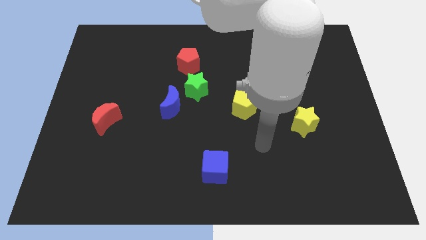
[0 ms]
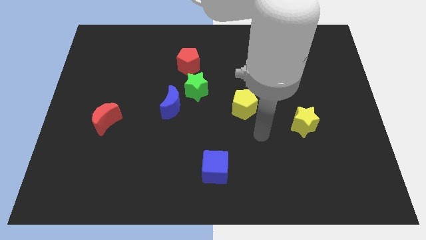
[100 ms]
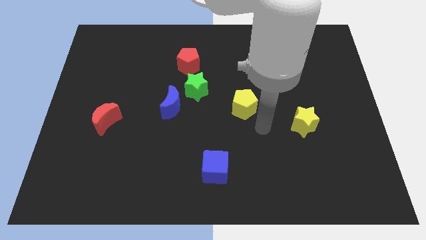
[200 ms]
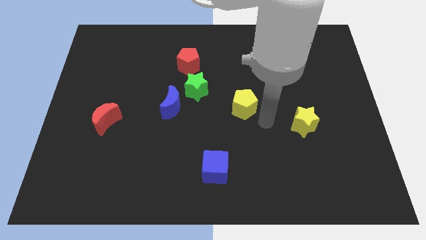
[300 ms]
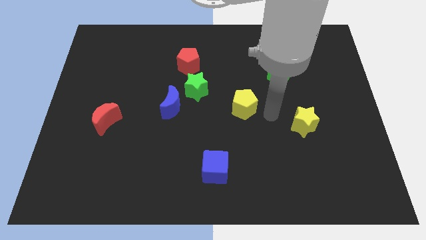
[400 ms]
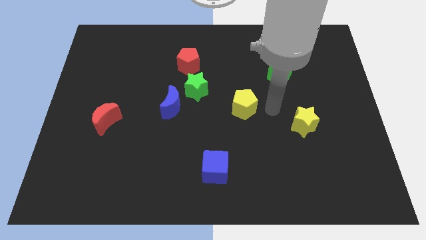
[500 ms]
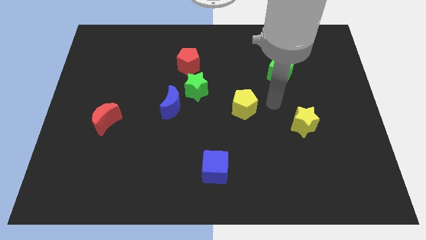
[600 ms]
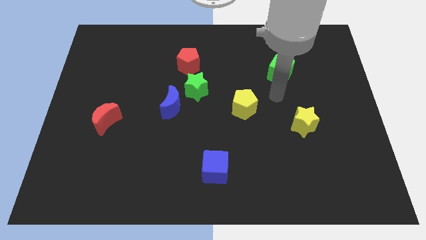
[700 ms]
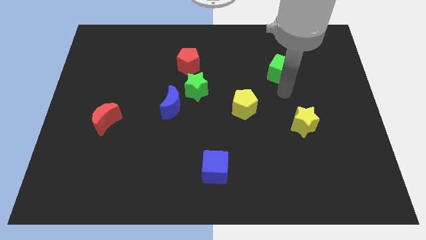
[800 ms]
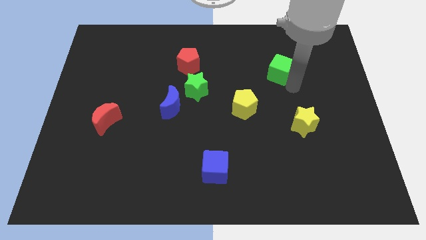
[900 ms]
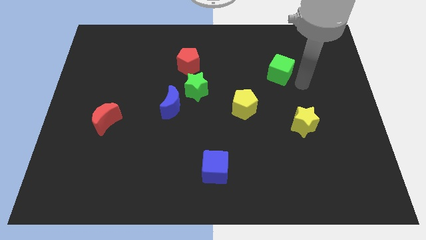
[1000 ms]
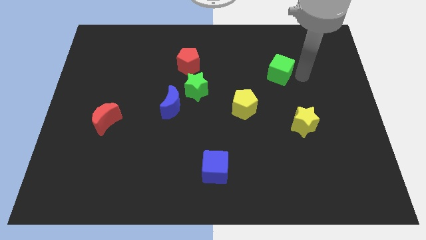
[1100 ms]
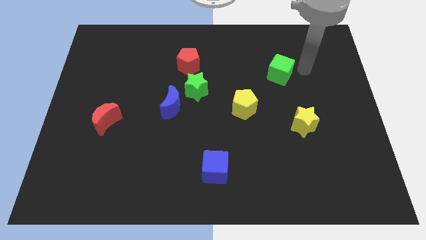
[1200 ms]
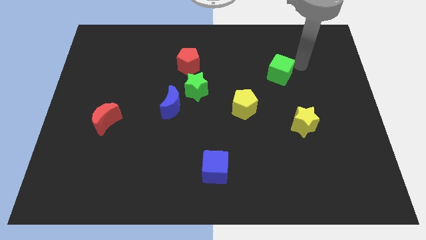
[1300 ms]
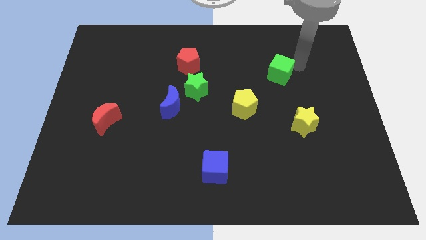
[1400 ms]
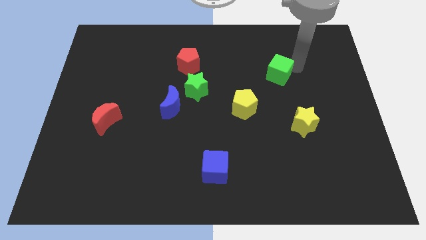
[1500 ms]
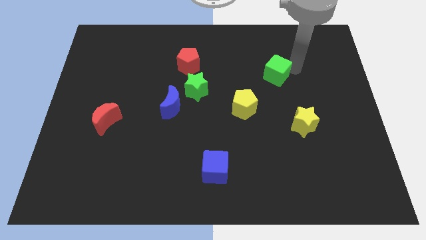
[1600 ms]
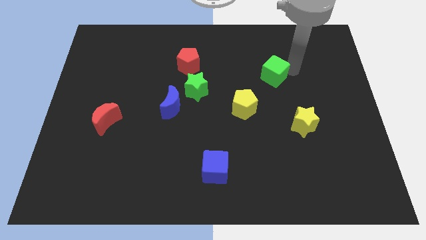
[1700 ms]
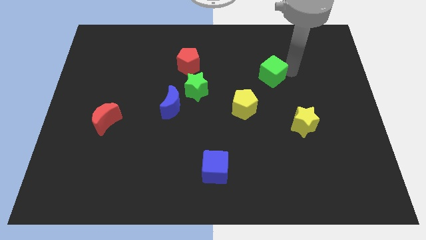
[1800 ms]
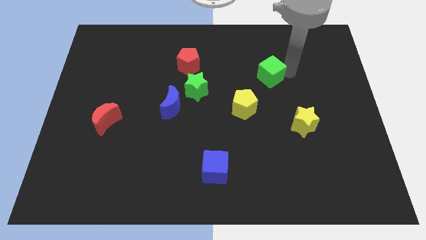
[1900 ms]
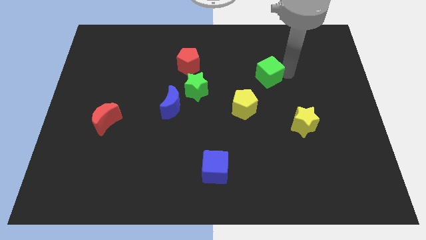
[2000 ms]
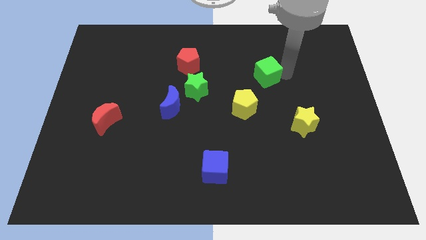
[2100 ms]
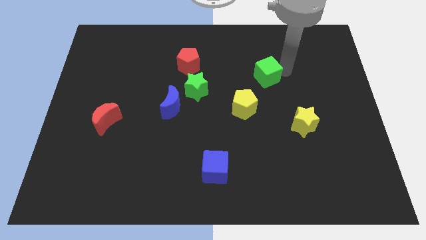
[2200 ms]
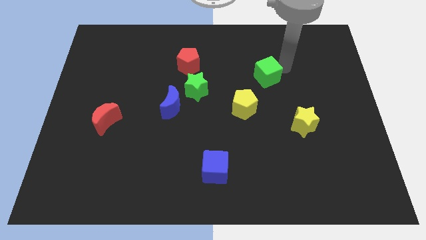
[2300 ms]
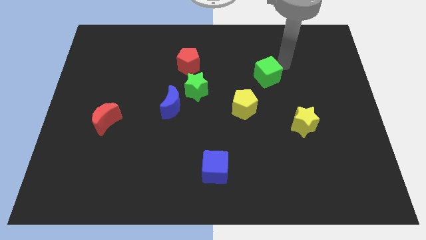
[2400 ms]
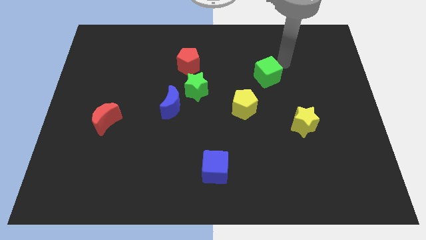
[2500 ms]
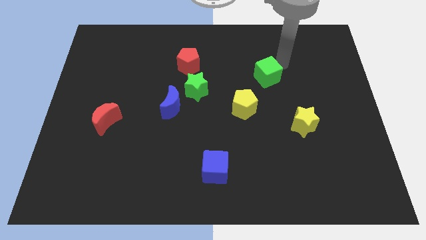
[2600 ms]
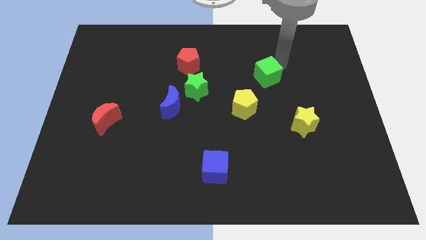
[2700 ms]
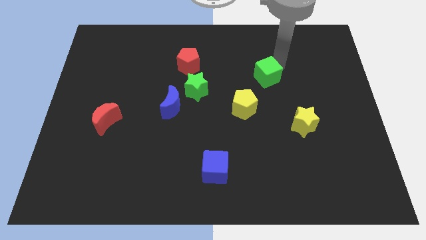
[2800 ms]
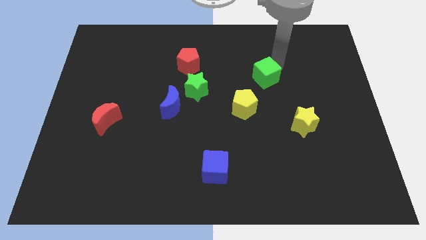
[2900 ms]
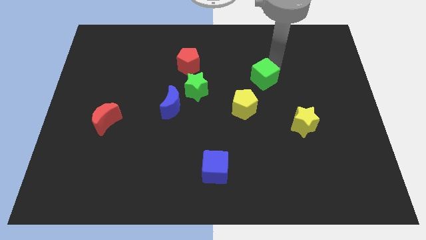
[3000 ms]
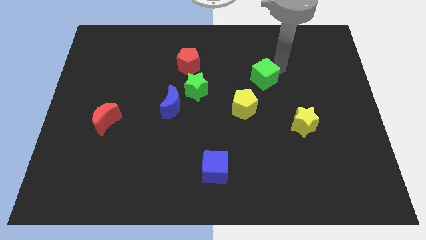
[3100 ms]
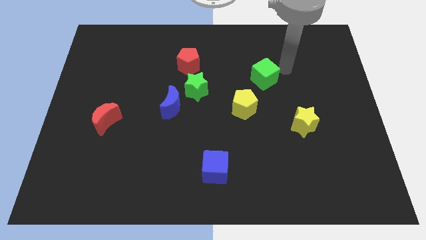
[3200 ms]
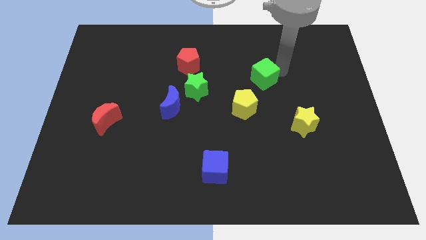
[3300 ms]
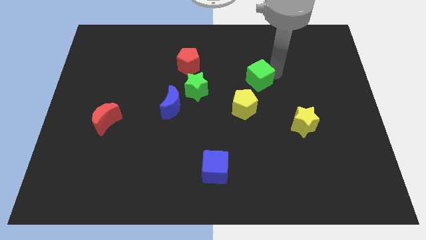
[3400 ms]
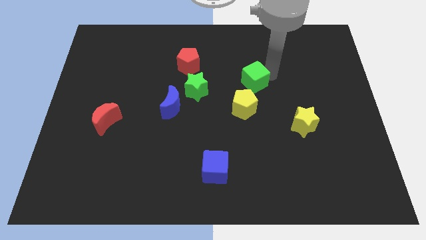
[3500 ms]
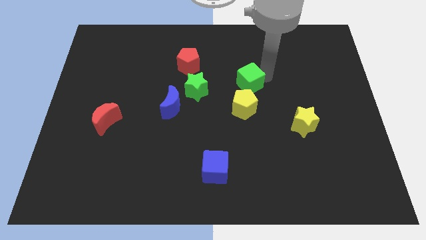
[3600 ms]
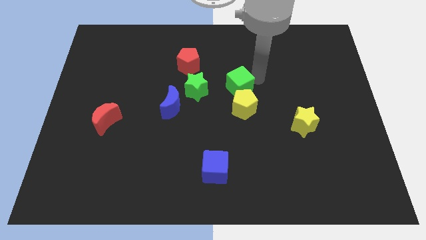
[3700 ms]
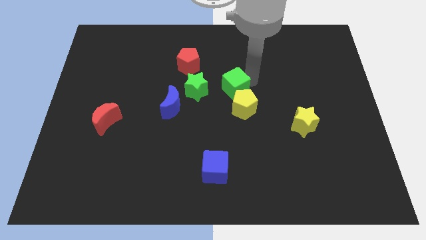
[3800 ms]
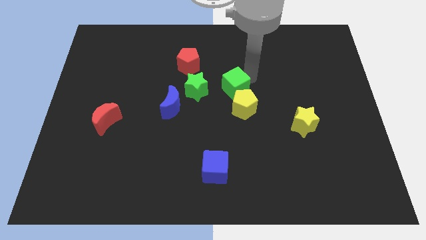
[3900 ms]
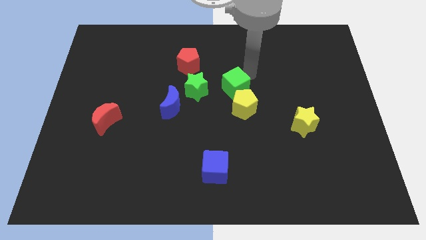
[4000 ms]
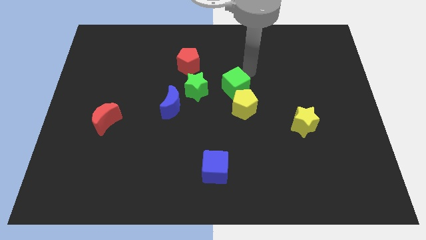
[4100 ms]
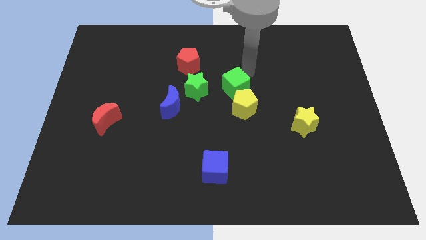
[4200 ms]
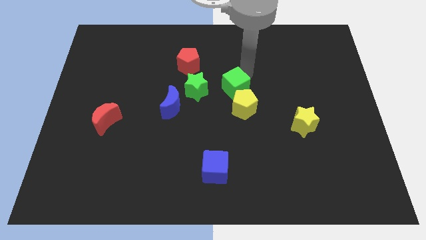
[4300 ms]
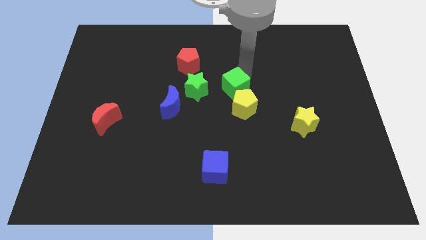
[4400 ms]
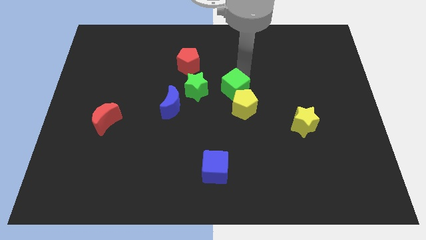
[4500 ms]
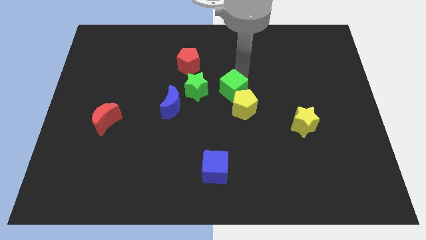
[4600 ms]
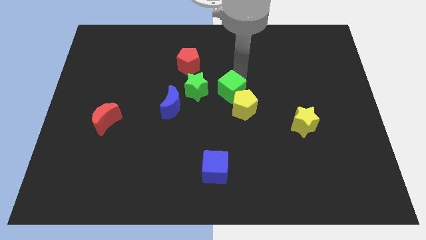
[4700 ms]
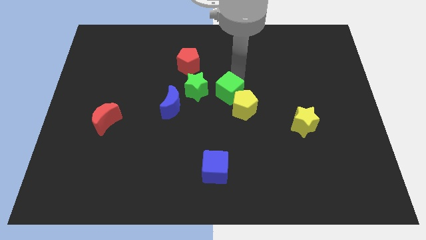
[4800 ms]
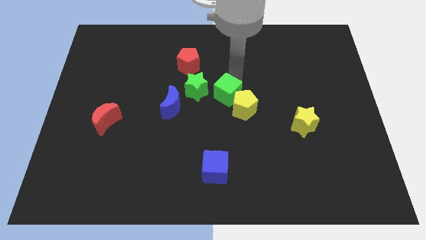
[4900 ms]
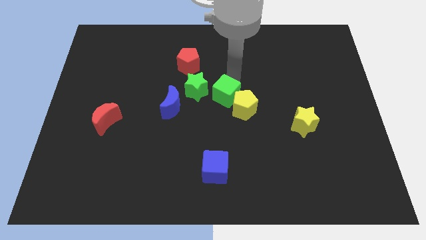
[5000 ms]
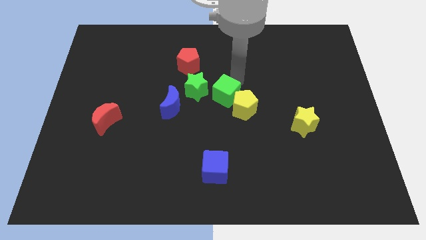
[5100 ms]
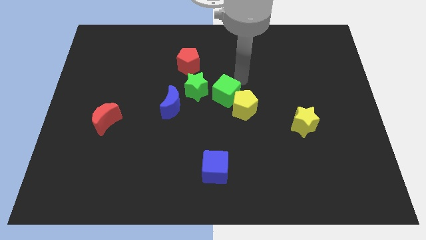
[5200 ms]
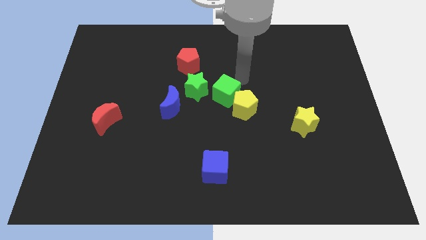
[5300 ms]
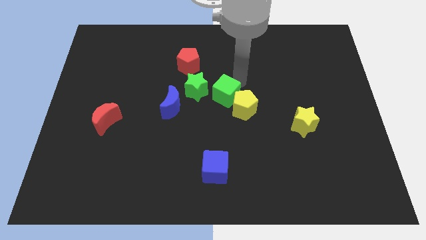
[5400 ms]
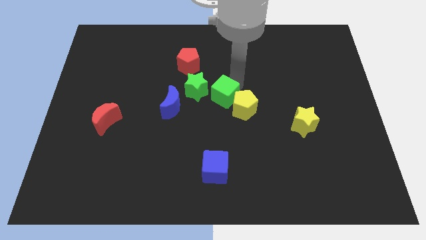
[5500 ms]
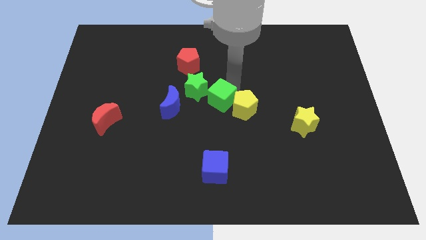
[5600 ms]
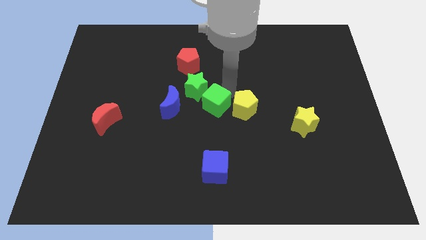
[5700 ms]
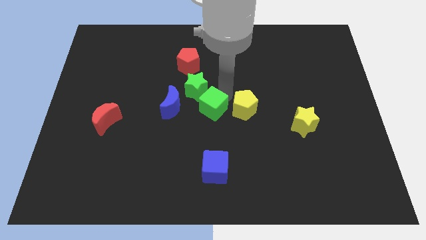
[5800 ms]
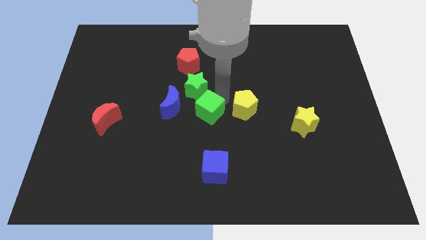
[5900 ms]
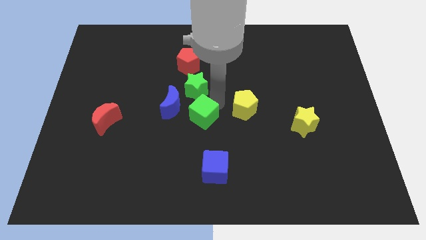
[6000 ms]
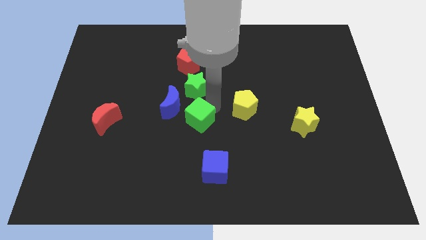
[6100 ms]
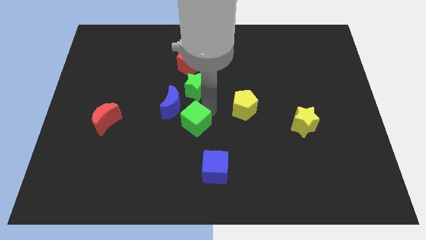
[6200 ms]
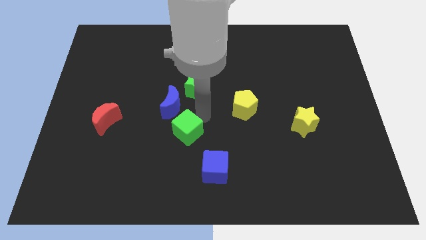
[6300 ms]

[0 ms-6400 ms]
push the green cube to the bottom of the blue moon
